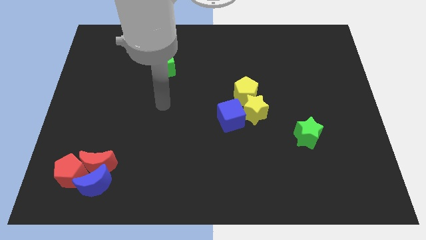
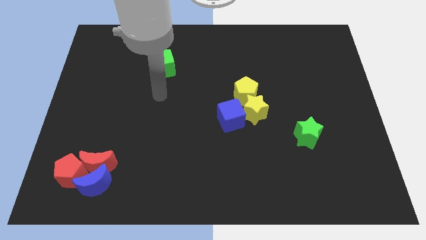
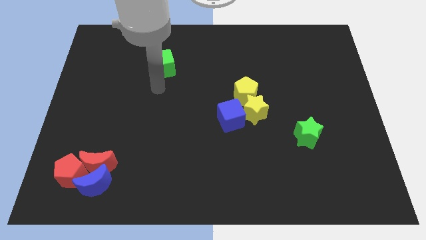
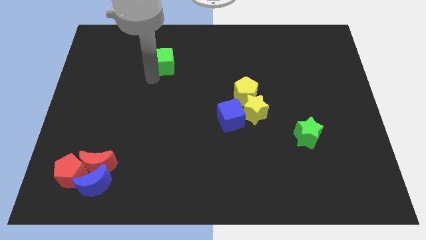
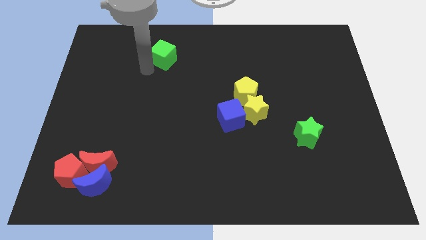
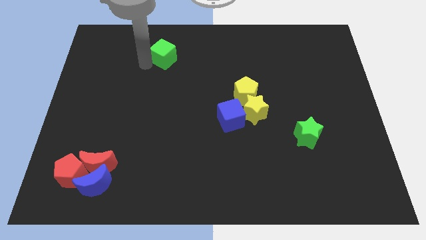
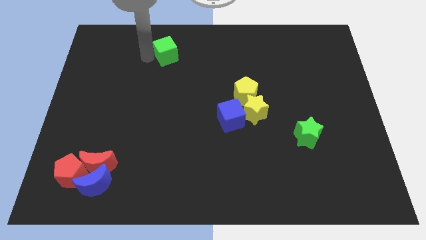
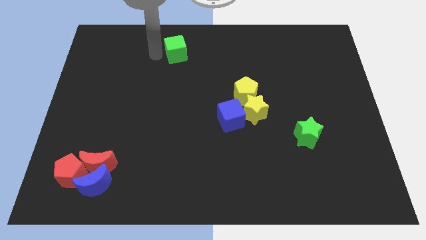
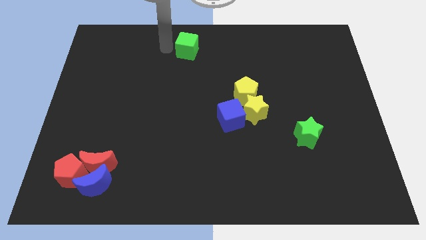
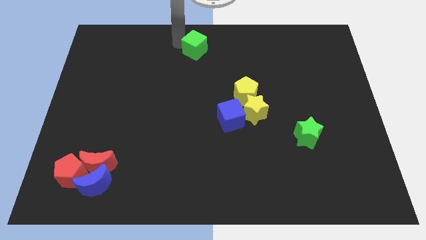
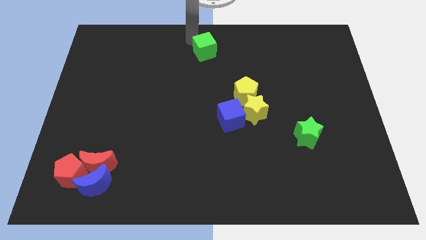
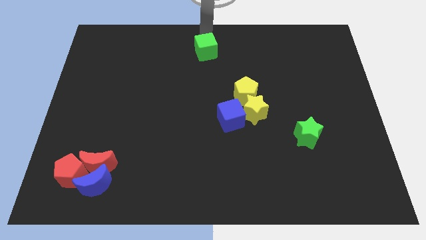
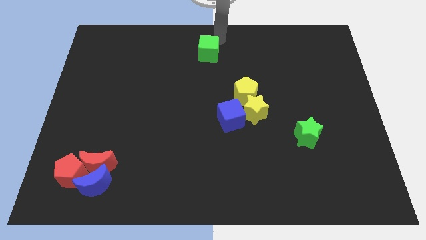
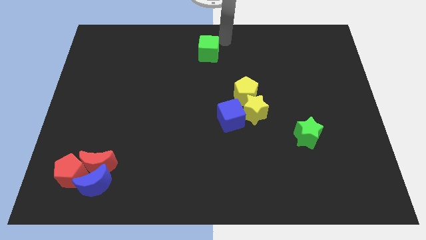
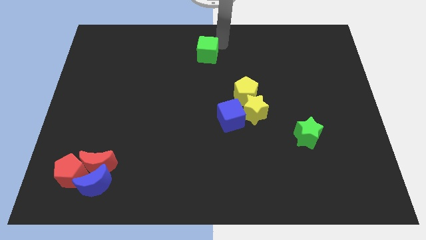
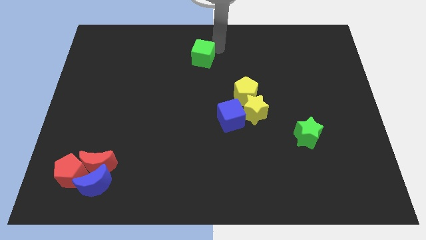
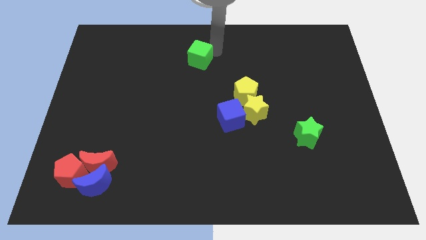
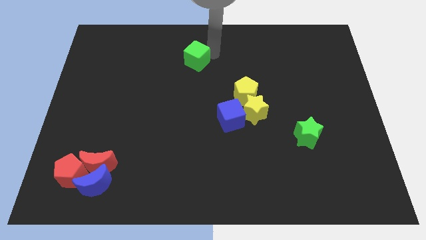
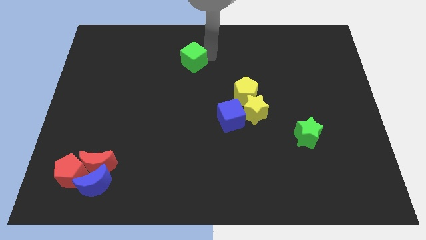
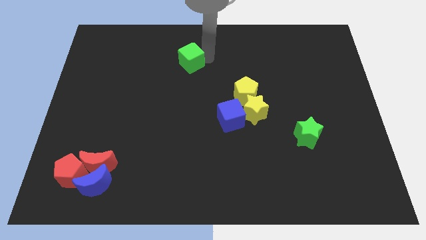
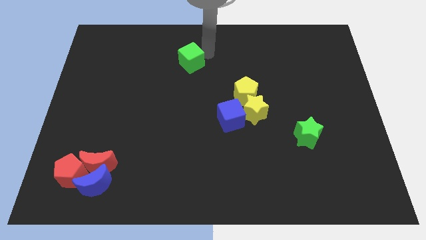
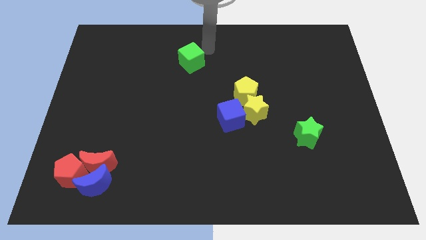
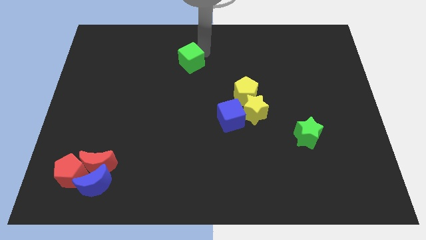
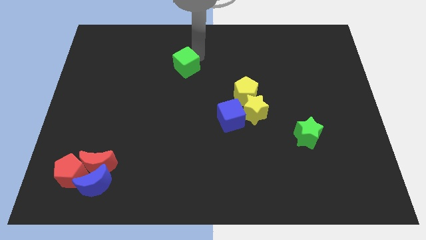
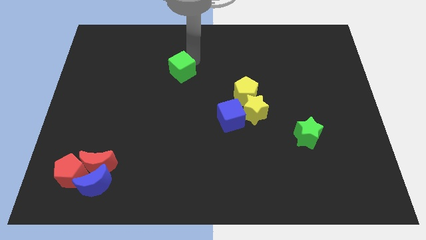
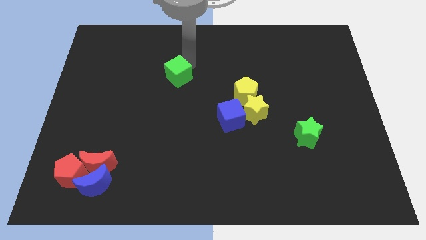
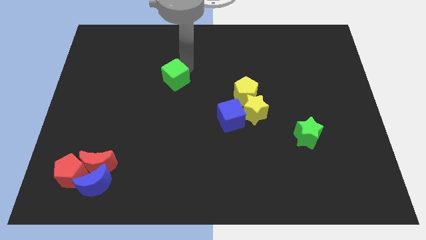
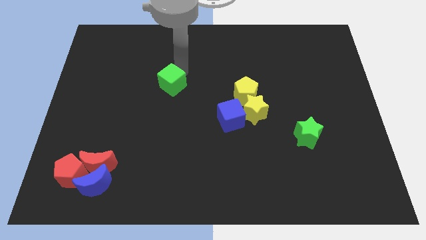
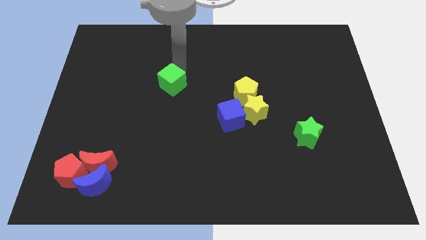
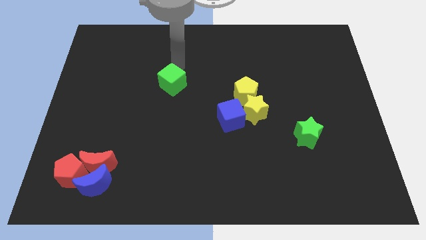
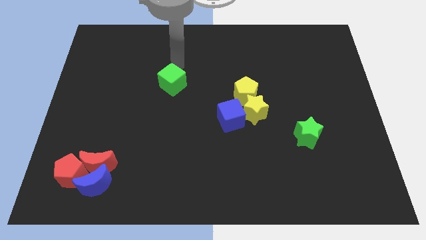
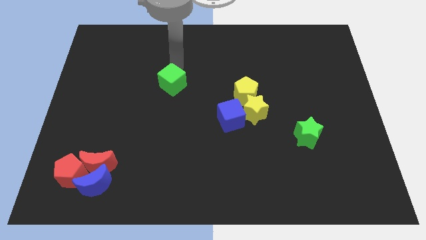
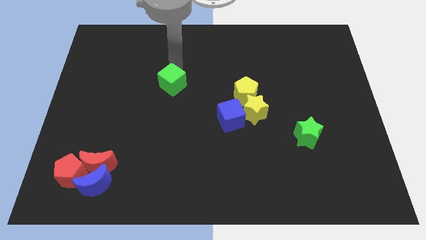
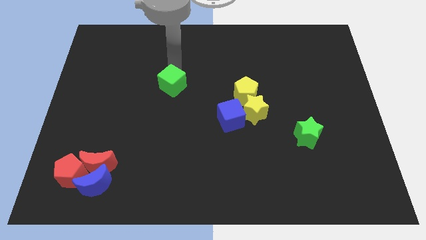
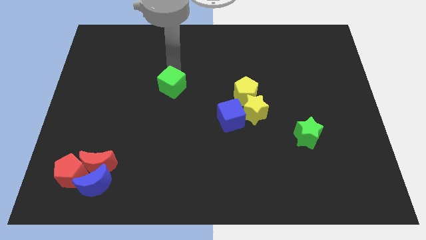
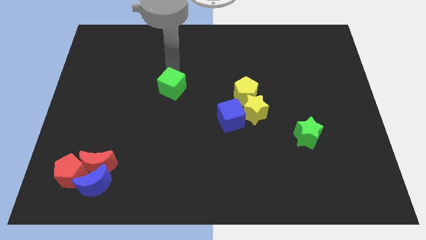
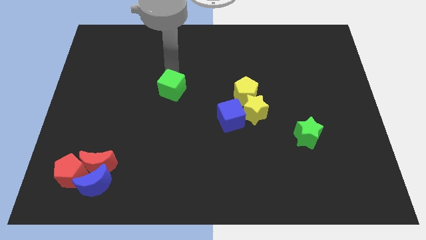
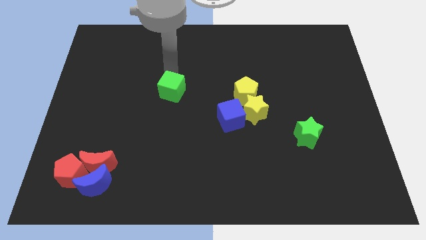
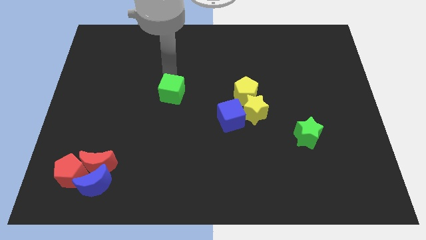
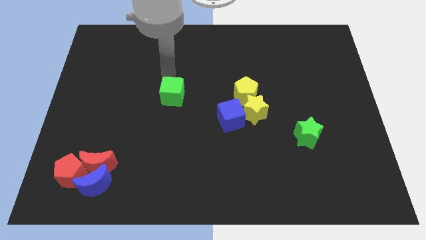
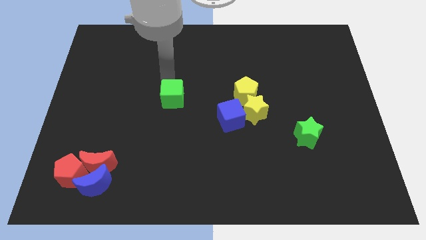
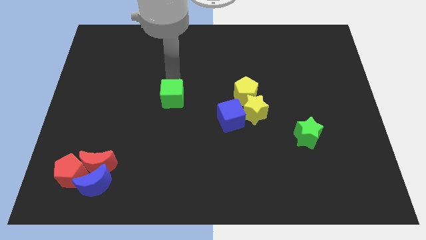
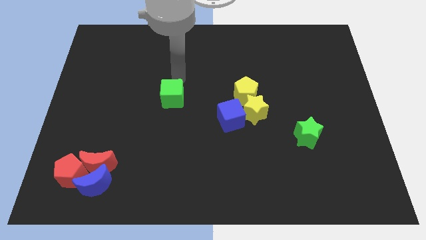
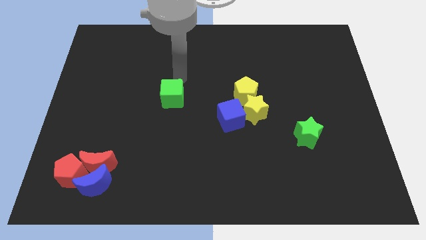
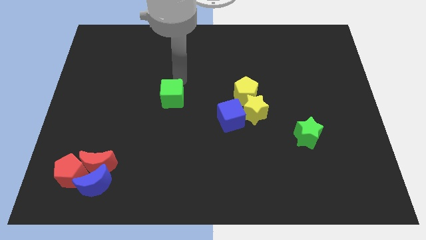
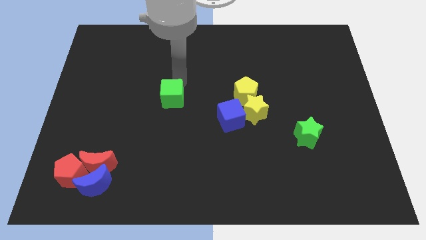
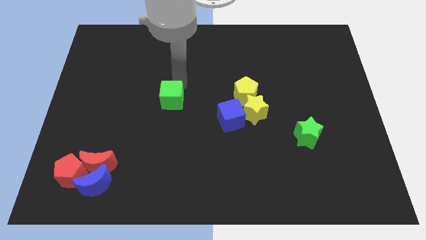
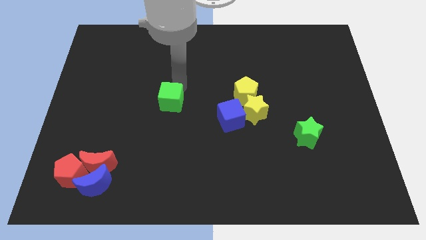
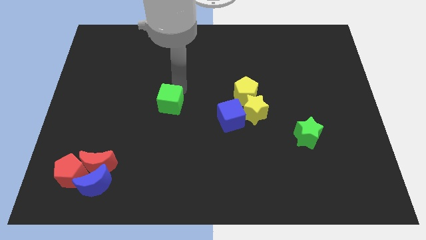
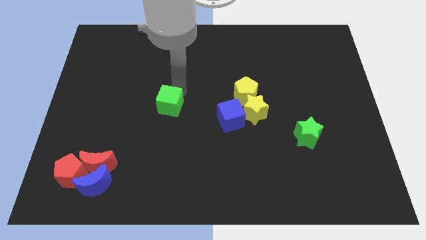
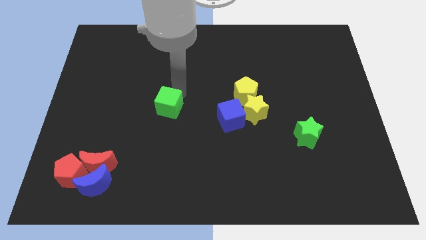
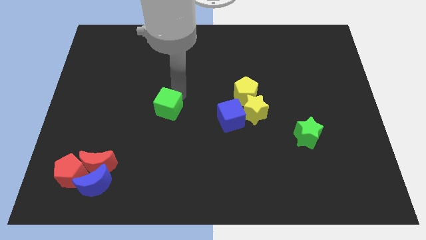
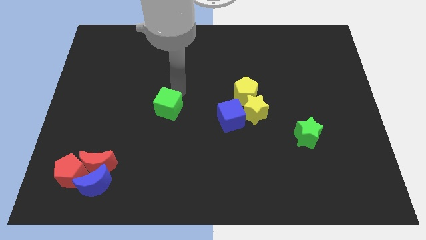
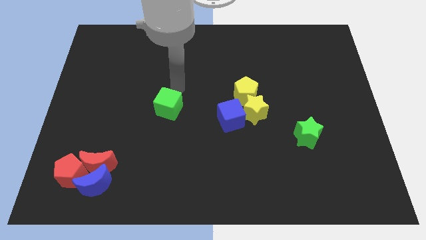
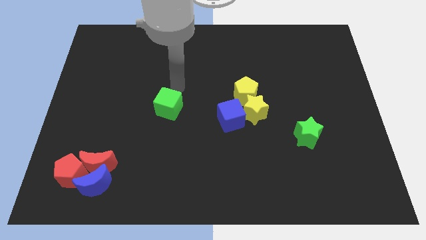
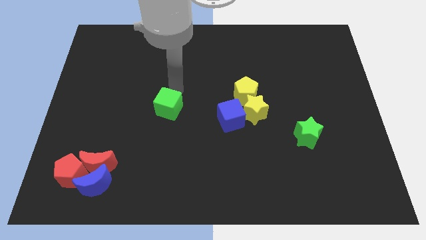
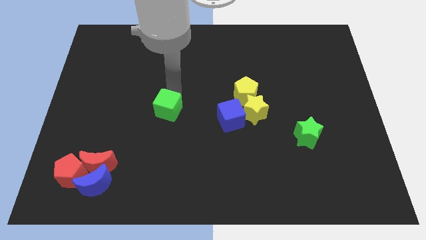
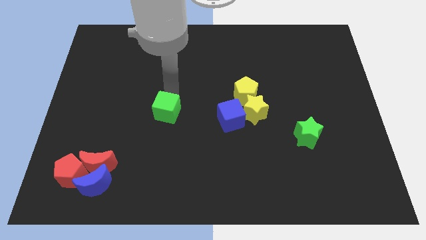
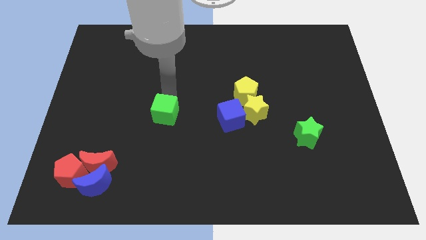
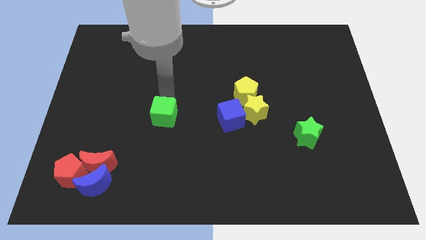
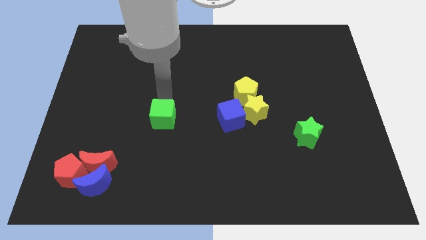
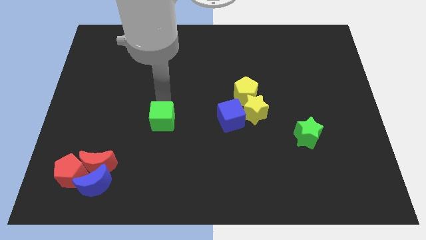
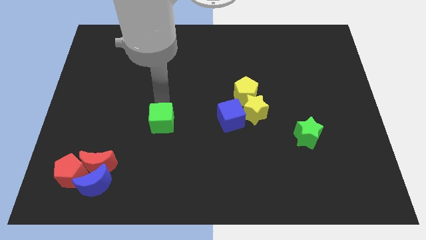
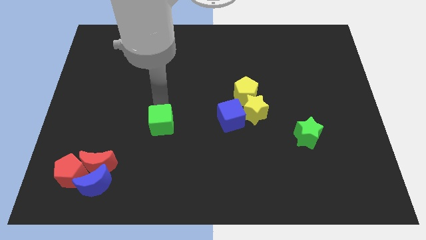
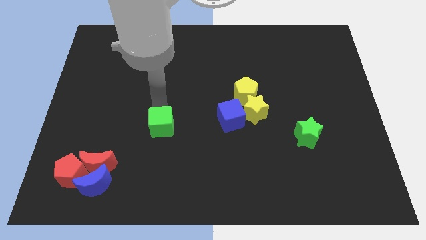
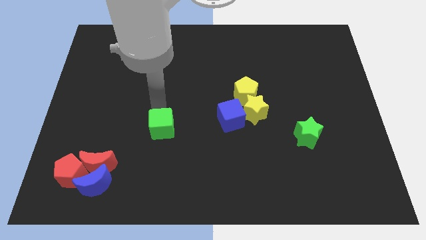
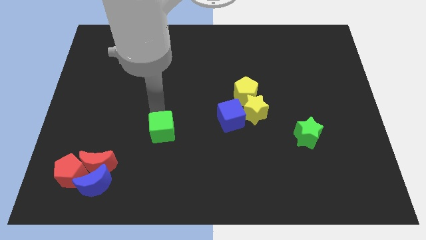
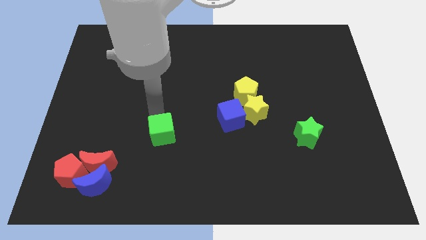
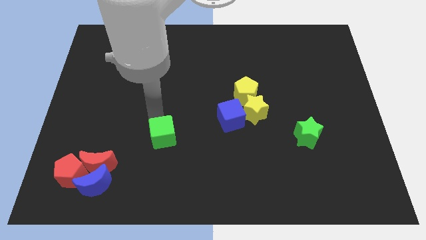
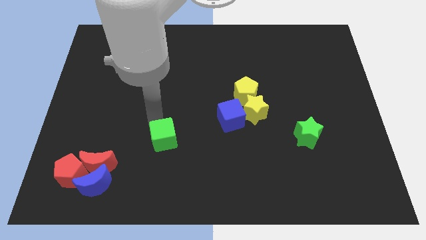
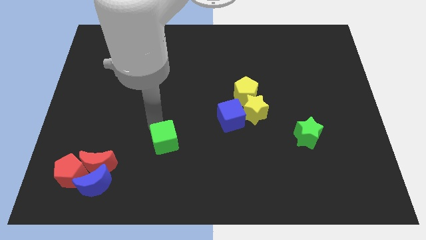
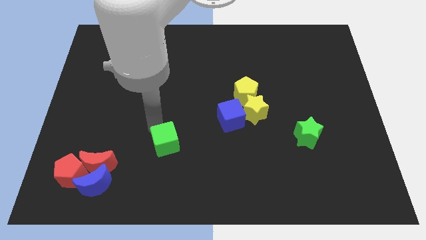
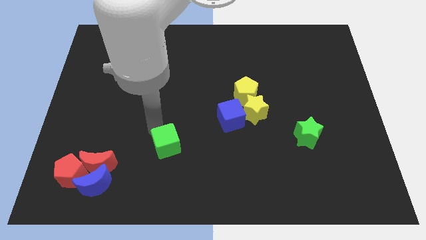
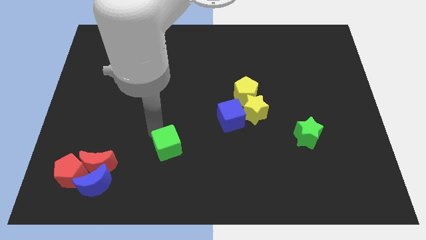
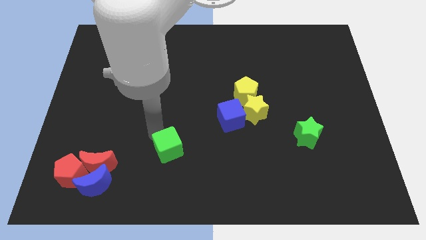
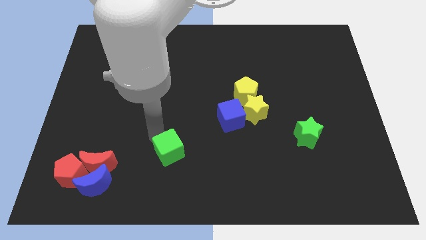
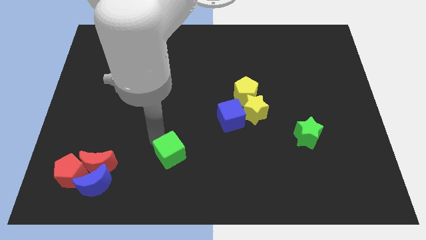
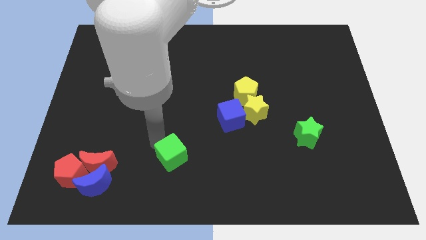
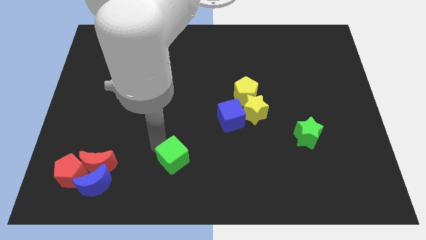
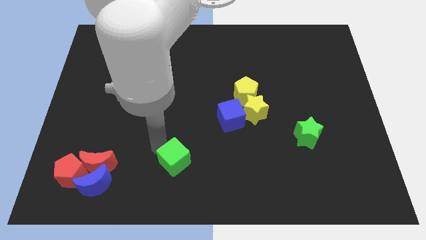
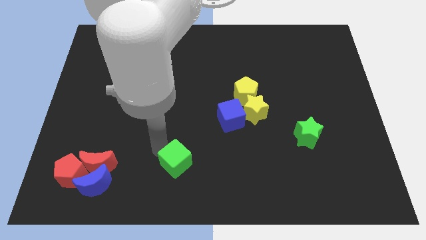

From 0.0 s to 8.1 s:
move the green cube to the bottom side
